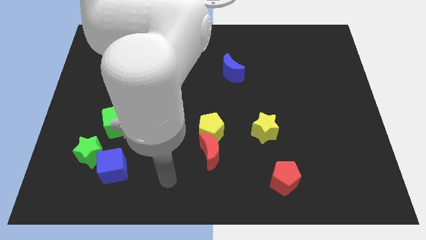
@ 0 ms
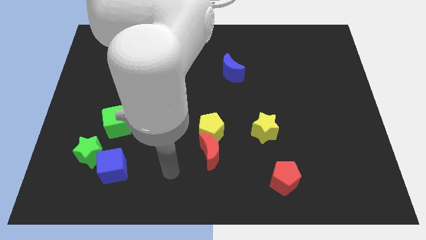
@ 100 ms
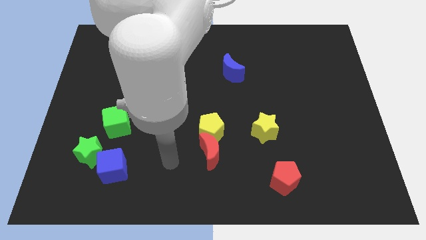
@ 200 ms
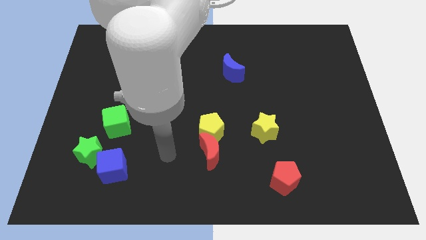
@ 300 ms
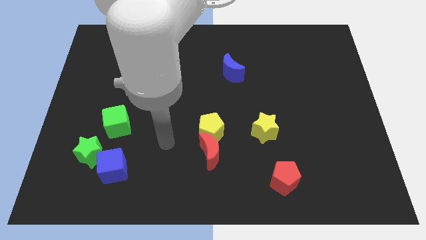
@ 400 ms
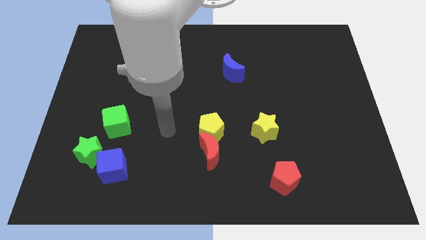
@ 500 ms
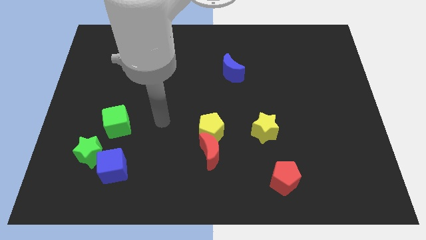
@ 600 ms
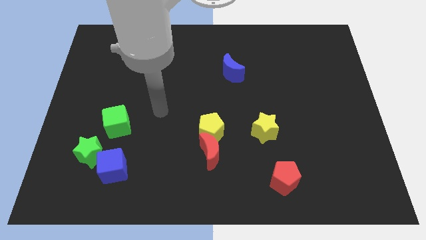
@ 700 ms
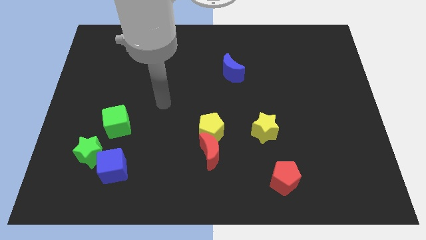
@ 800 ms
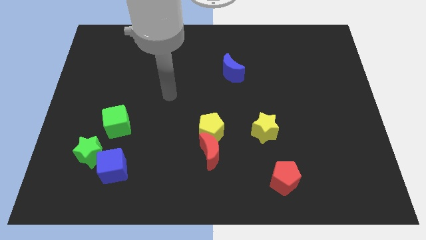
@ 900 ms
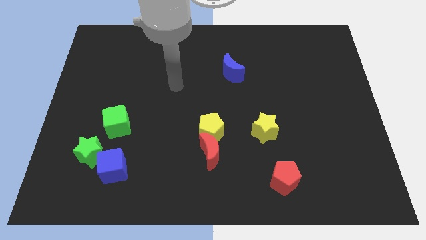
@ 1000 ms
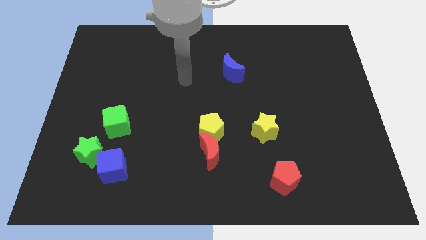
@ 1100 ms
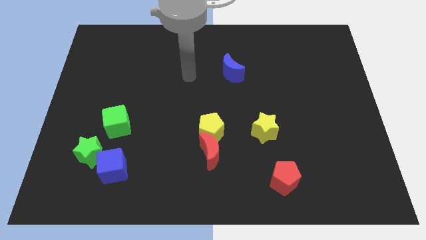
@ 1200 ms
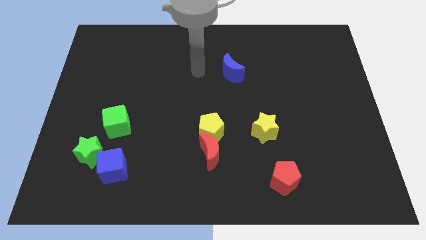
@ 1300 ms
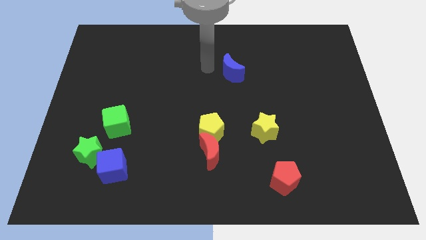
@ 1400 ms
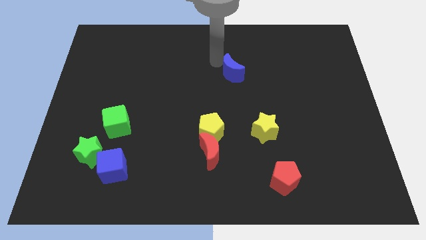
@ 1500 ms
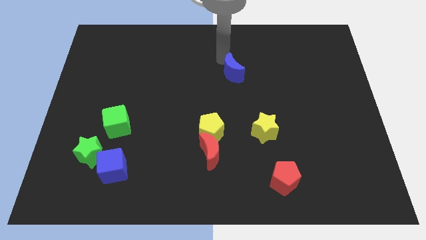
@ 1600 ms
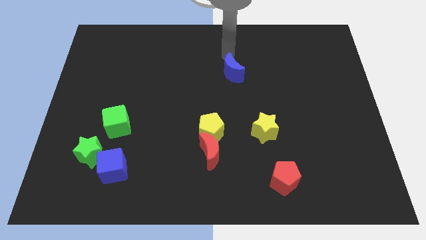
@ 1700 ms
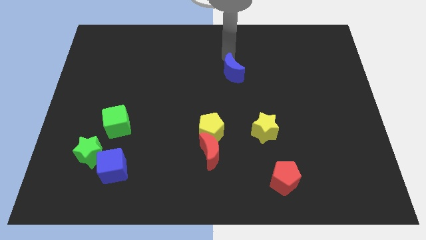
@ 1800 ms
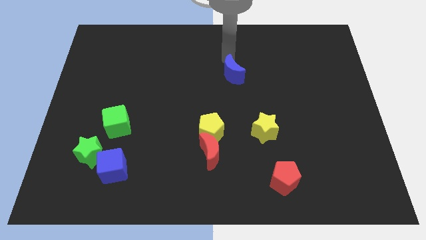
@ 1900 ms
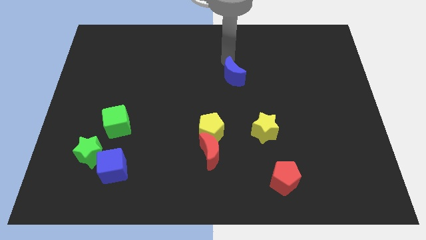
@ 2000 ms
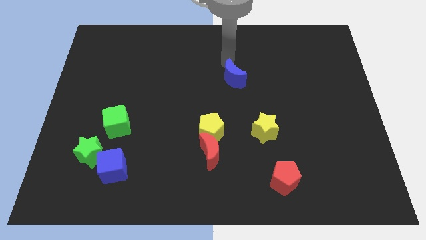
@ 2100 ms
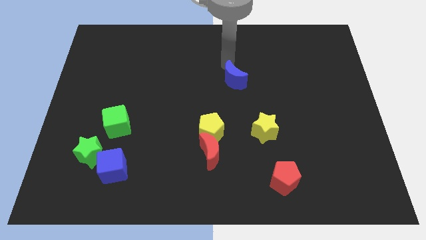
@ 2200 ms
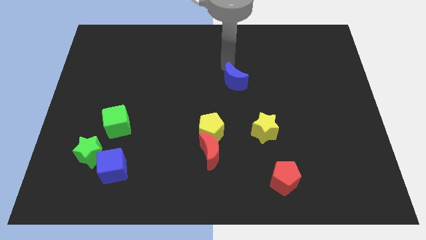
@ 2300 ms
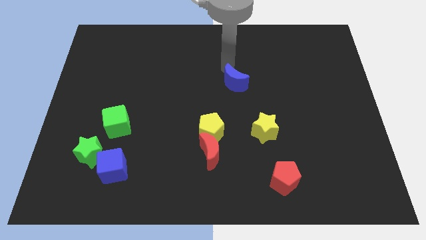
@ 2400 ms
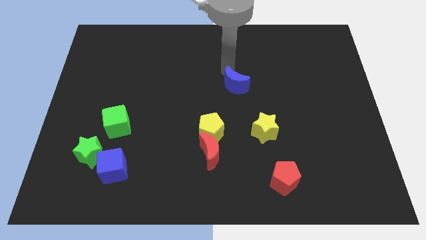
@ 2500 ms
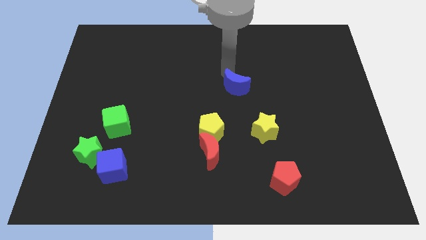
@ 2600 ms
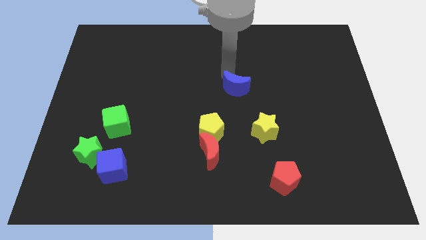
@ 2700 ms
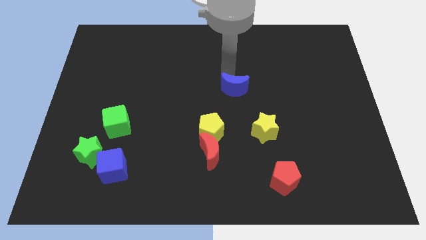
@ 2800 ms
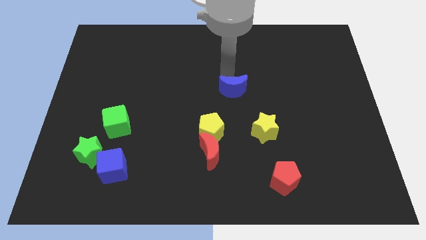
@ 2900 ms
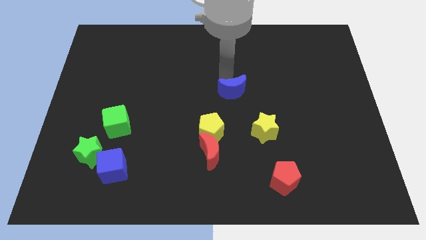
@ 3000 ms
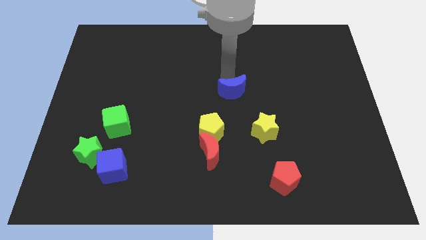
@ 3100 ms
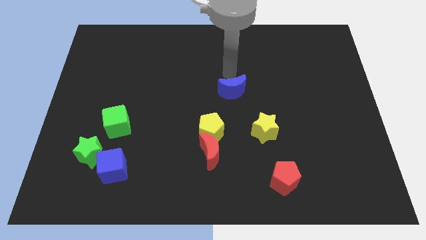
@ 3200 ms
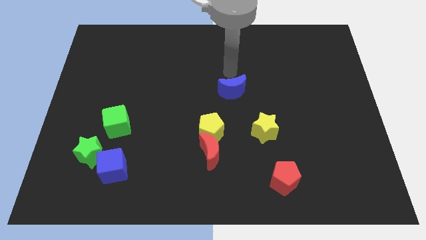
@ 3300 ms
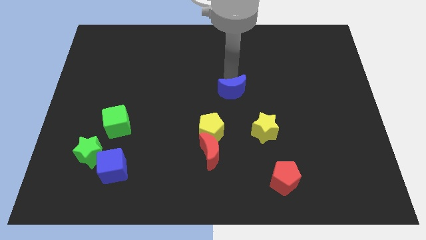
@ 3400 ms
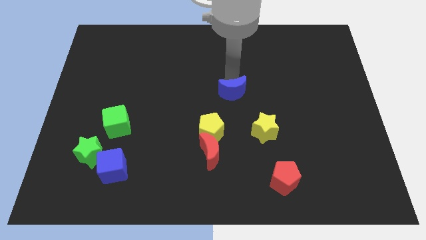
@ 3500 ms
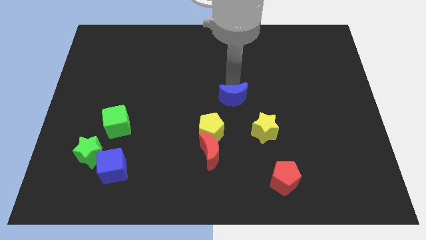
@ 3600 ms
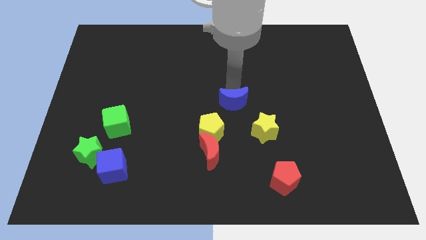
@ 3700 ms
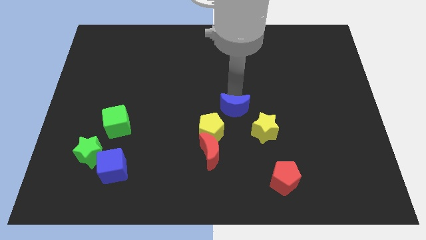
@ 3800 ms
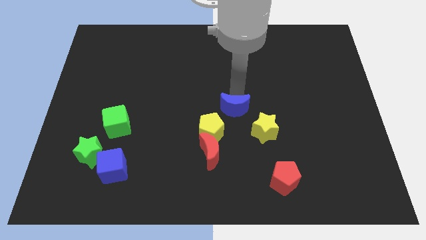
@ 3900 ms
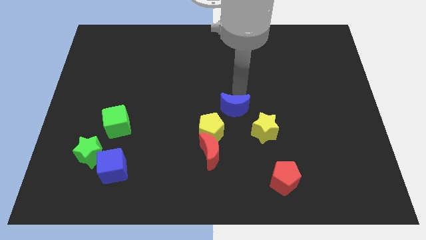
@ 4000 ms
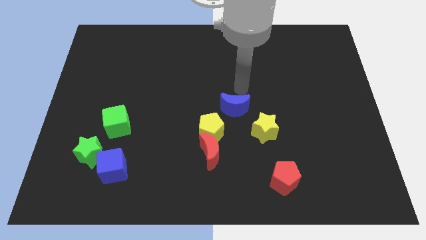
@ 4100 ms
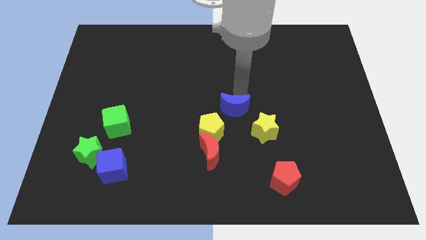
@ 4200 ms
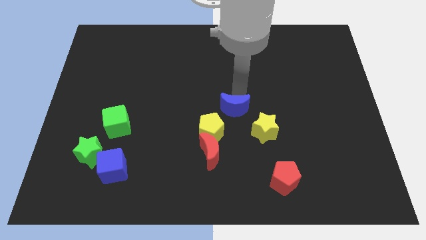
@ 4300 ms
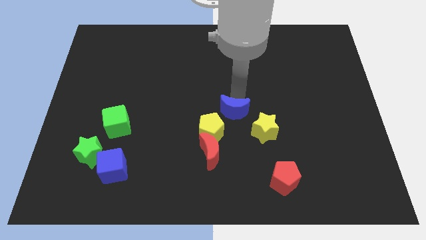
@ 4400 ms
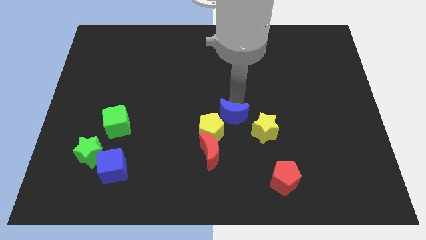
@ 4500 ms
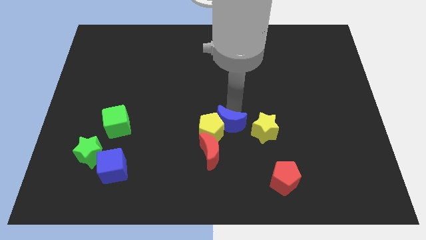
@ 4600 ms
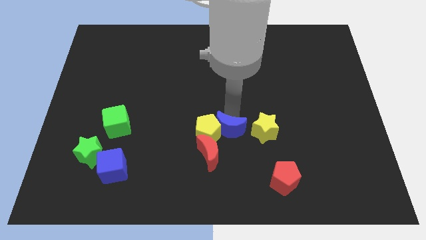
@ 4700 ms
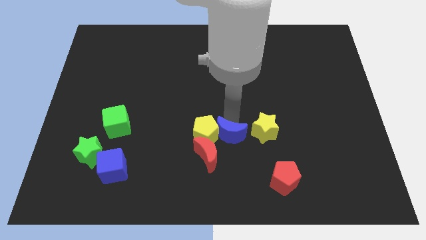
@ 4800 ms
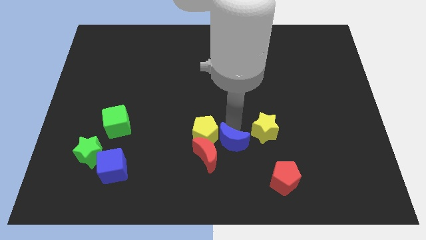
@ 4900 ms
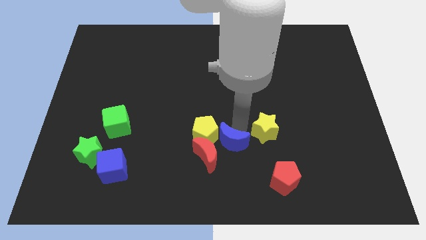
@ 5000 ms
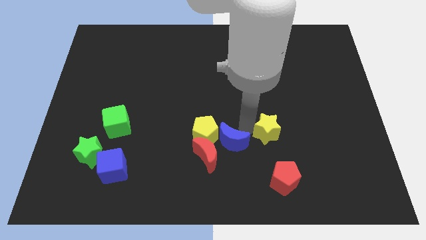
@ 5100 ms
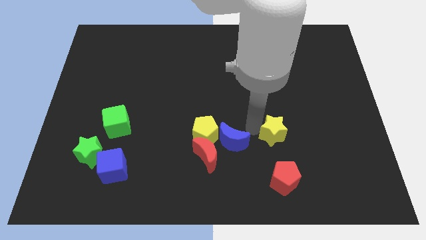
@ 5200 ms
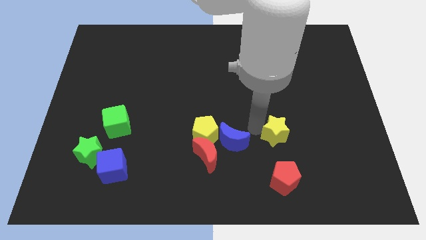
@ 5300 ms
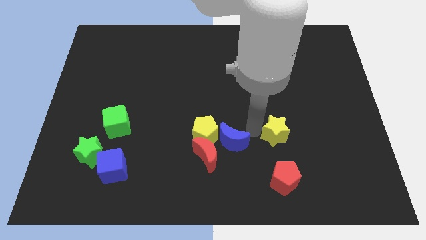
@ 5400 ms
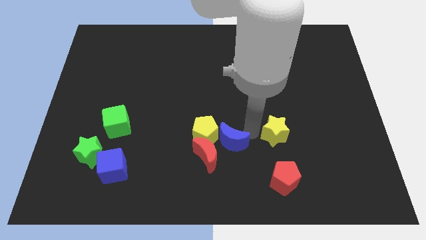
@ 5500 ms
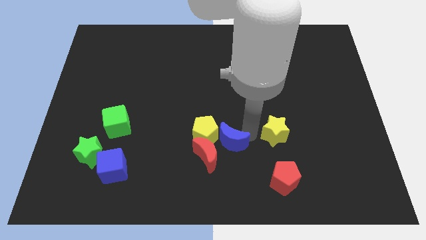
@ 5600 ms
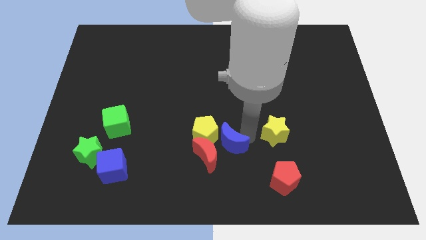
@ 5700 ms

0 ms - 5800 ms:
push the blue moon close to the red moon

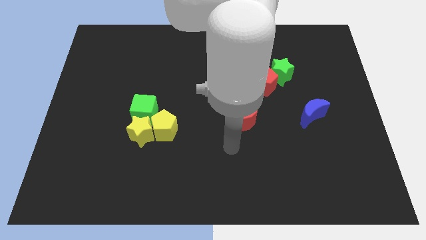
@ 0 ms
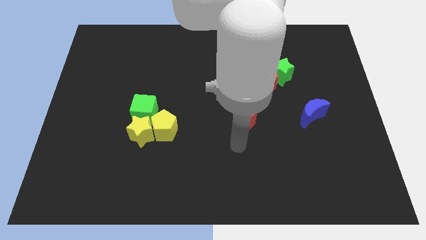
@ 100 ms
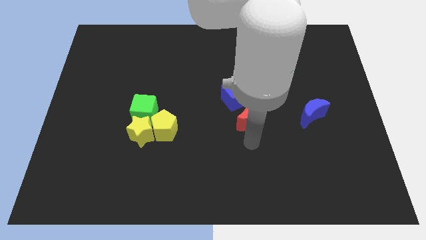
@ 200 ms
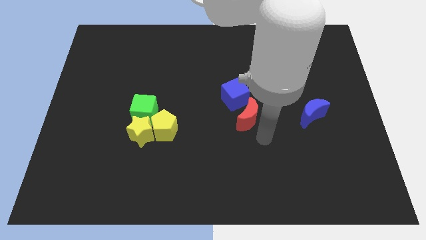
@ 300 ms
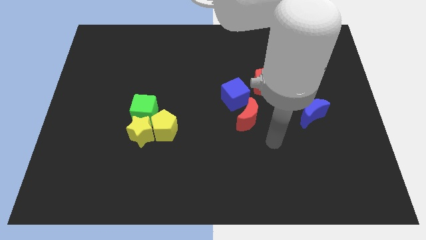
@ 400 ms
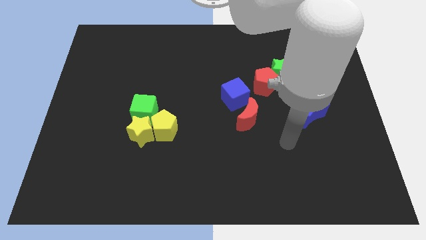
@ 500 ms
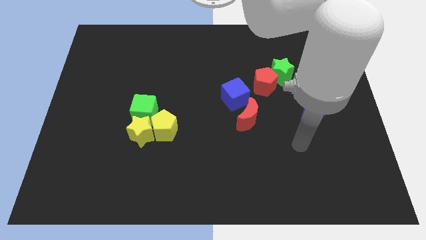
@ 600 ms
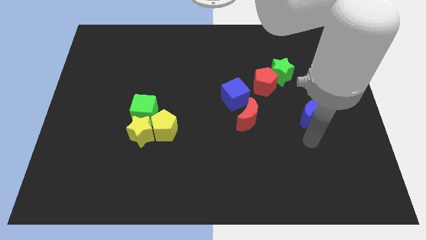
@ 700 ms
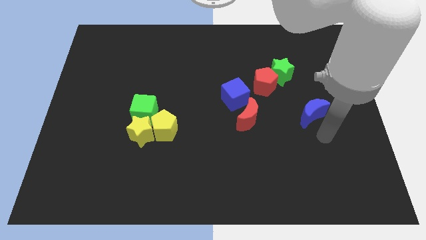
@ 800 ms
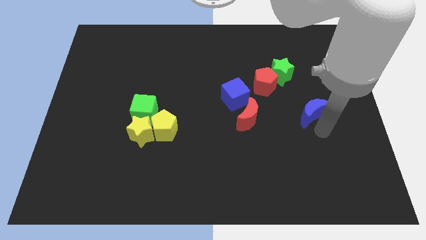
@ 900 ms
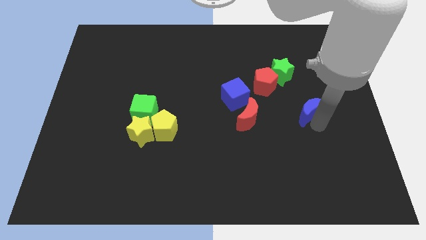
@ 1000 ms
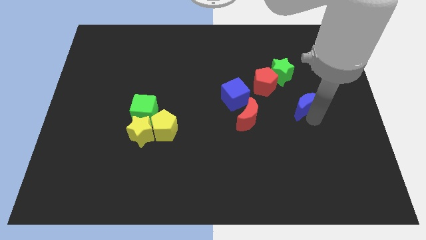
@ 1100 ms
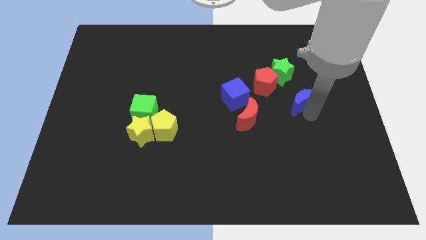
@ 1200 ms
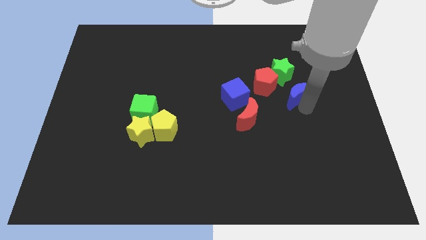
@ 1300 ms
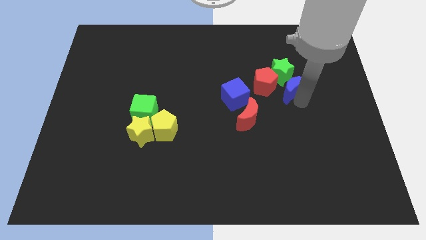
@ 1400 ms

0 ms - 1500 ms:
push the blue moon to the green star

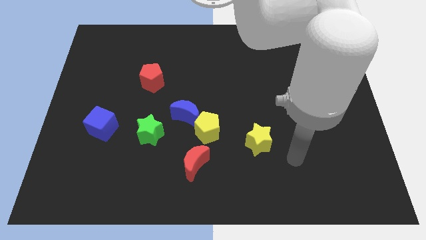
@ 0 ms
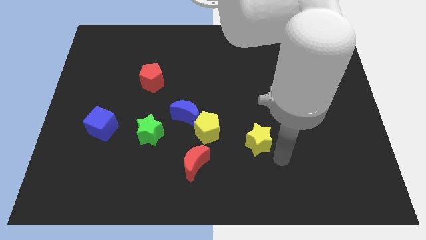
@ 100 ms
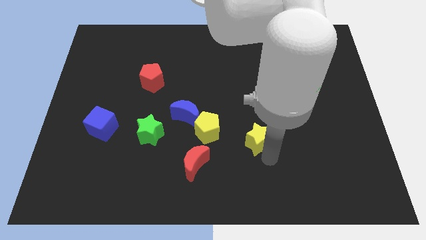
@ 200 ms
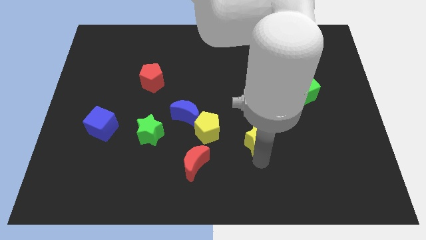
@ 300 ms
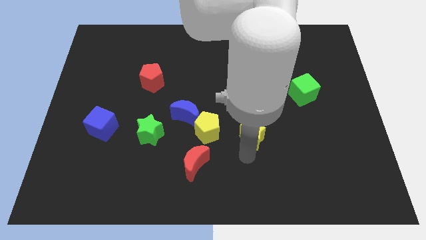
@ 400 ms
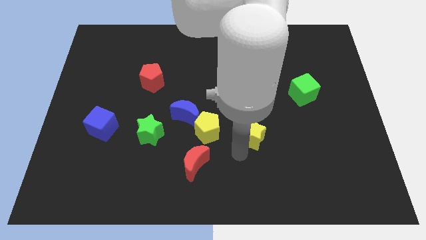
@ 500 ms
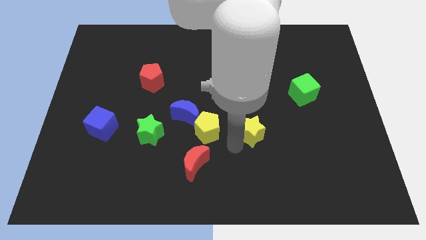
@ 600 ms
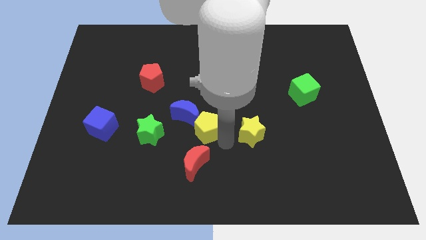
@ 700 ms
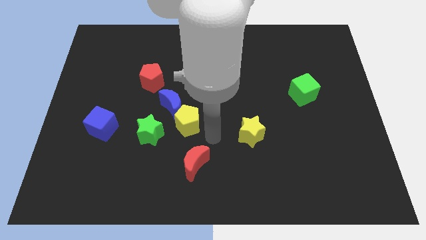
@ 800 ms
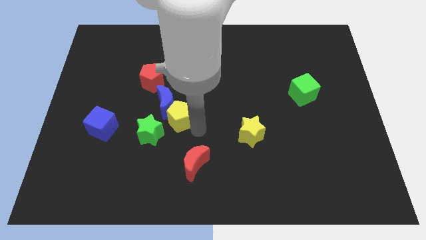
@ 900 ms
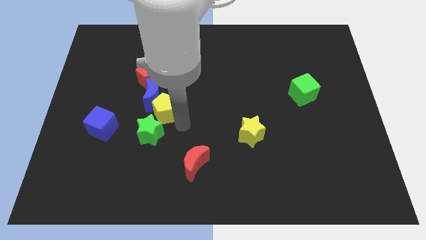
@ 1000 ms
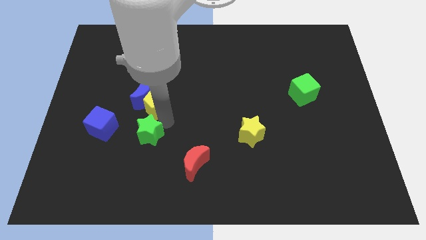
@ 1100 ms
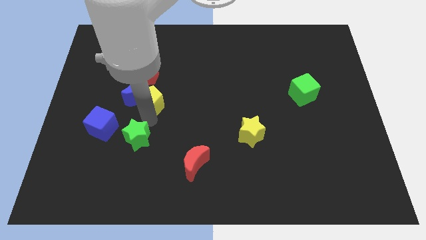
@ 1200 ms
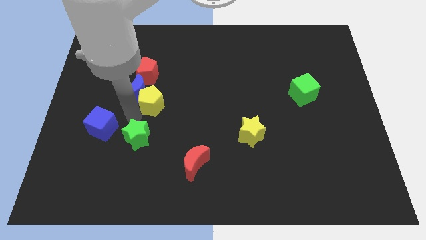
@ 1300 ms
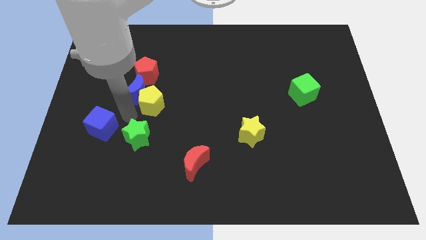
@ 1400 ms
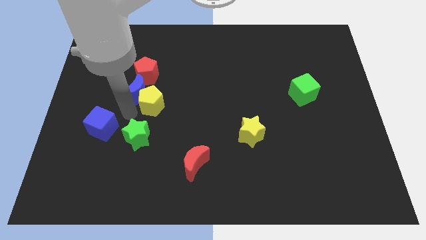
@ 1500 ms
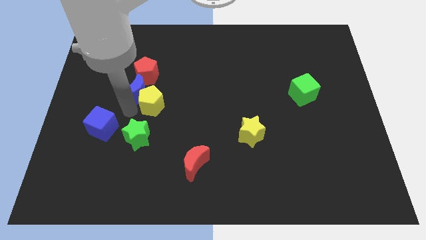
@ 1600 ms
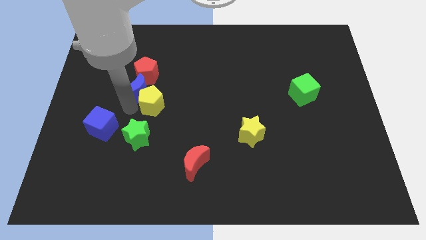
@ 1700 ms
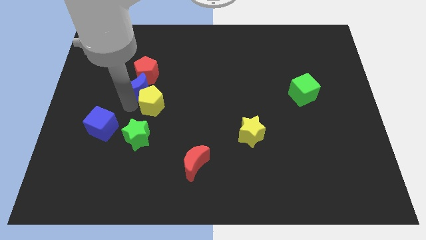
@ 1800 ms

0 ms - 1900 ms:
move the blue moon towards the red pentagon
